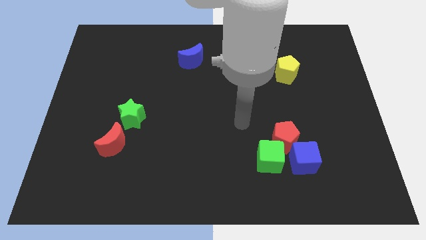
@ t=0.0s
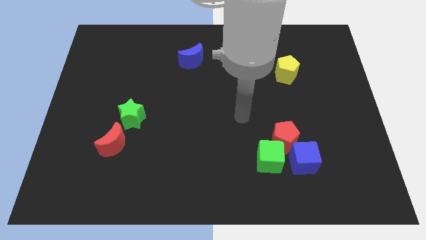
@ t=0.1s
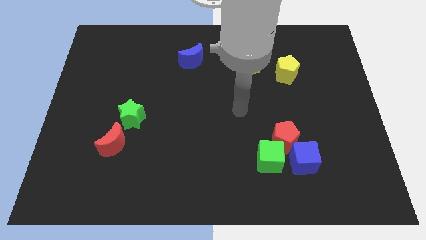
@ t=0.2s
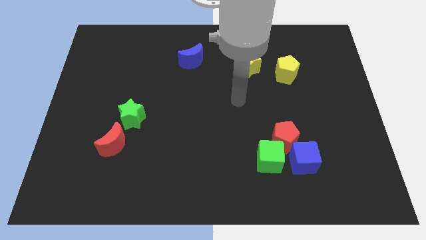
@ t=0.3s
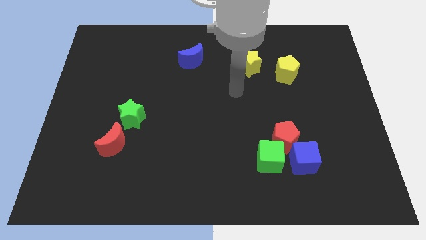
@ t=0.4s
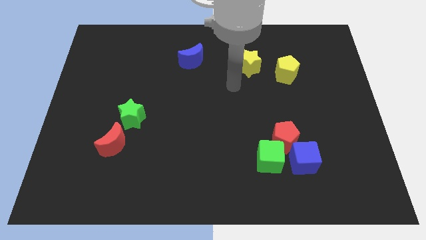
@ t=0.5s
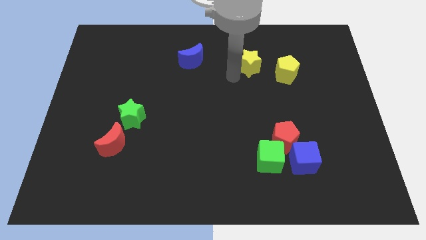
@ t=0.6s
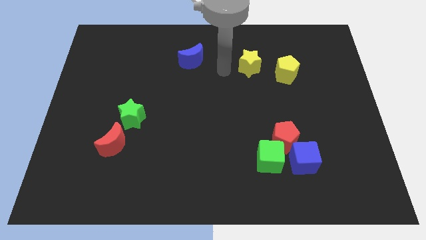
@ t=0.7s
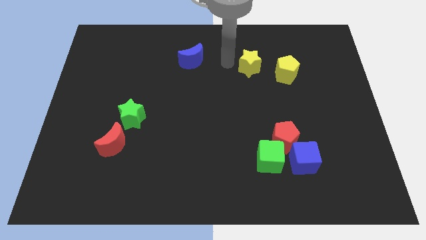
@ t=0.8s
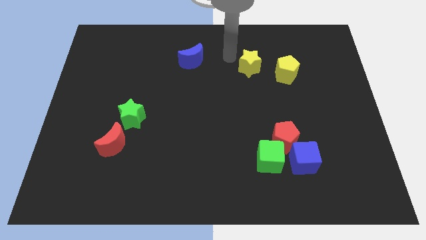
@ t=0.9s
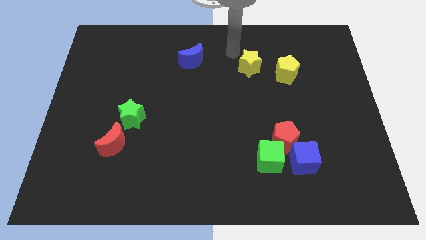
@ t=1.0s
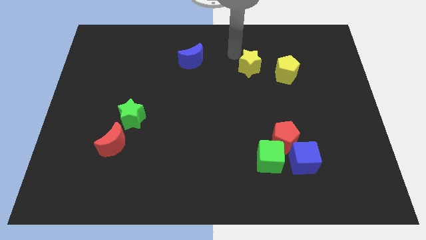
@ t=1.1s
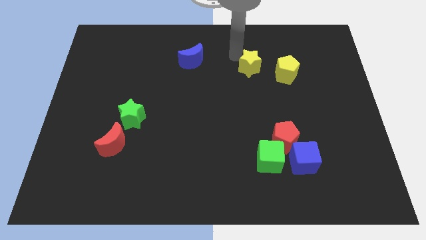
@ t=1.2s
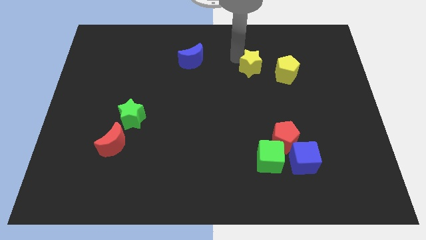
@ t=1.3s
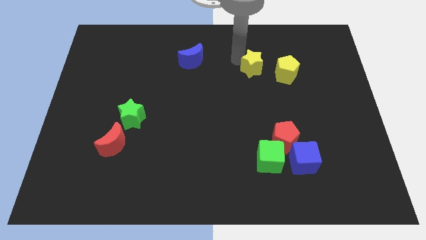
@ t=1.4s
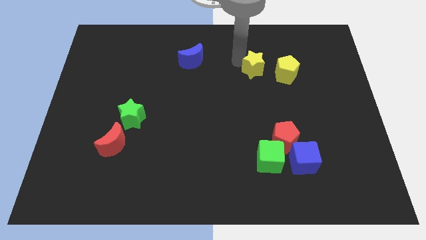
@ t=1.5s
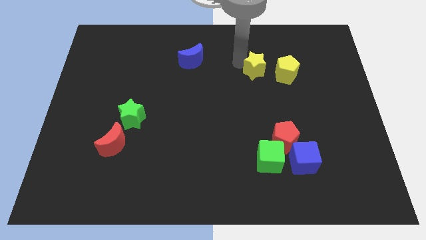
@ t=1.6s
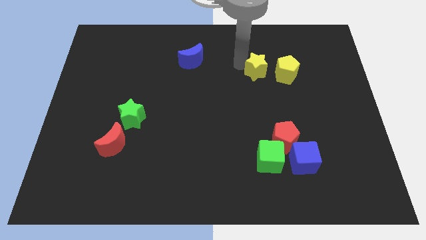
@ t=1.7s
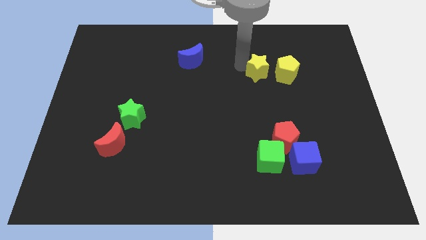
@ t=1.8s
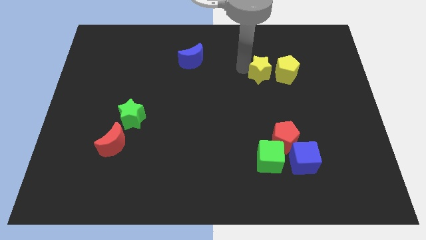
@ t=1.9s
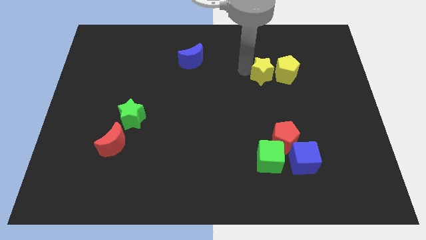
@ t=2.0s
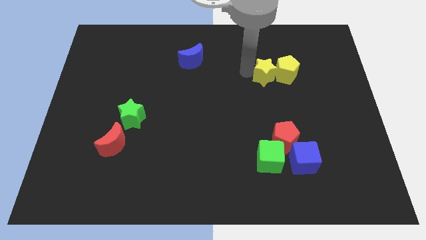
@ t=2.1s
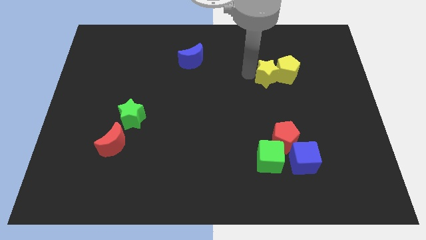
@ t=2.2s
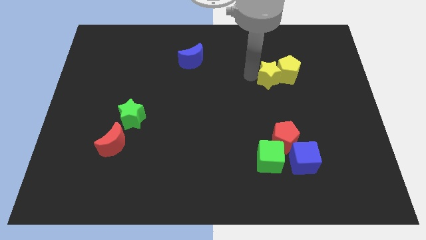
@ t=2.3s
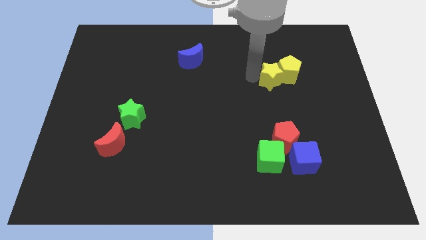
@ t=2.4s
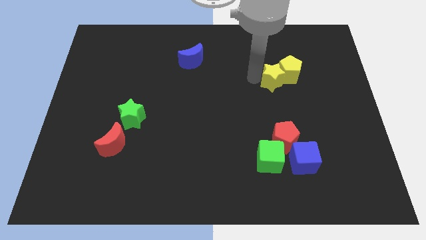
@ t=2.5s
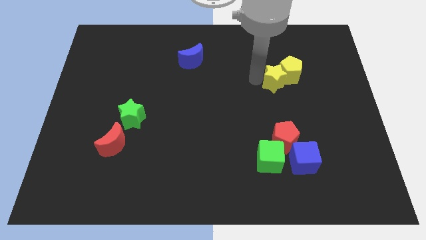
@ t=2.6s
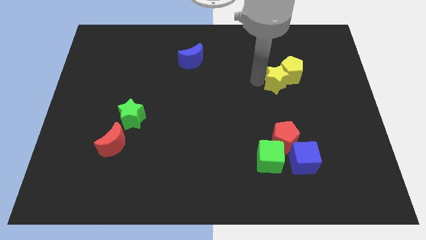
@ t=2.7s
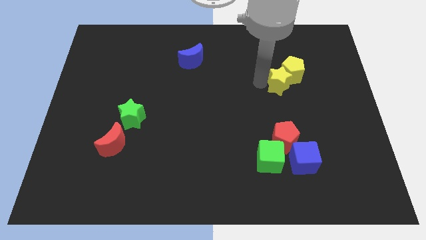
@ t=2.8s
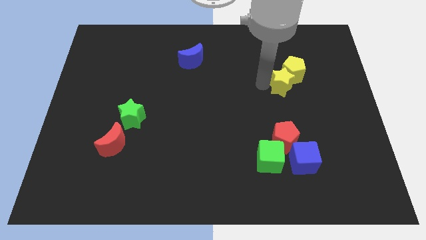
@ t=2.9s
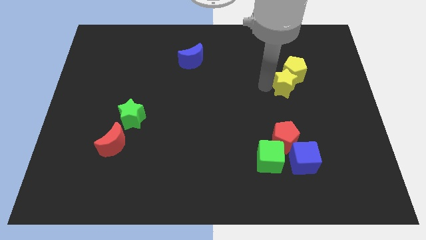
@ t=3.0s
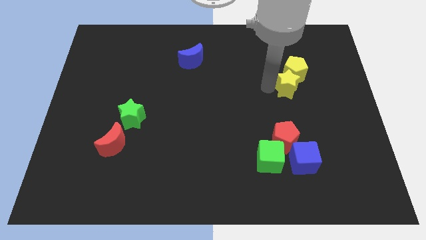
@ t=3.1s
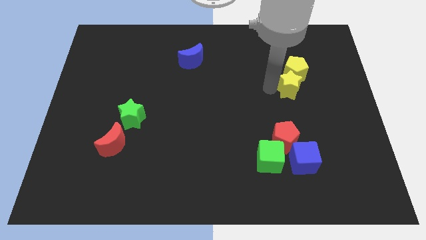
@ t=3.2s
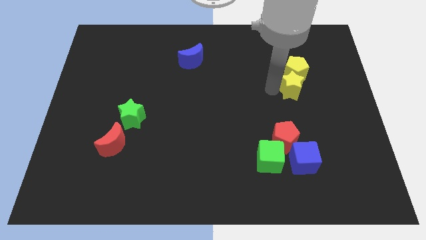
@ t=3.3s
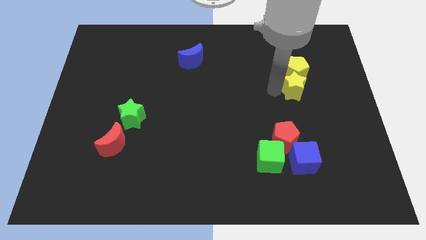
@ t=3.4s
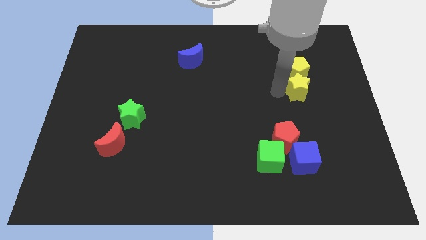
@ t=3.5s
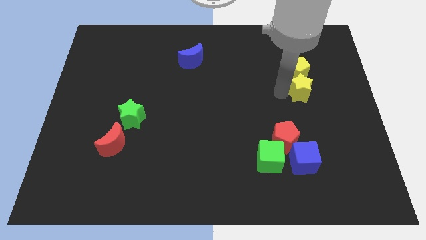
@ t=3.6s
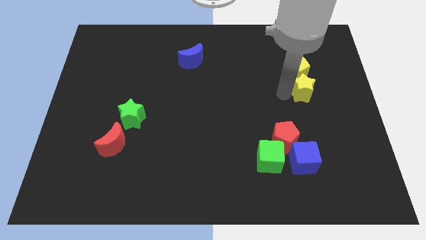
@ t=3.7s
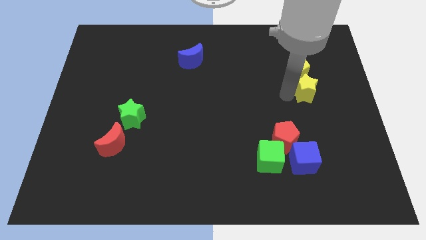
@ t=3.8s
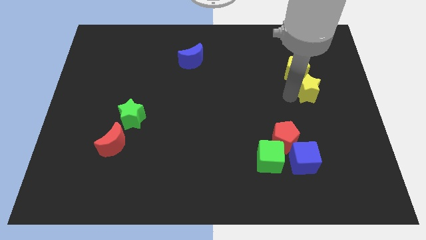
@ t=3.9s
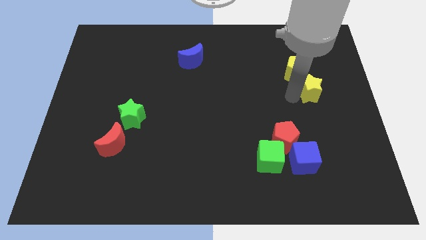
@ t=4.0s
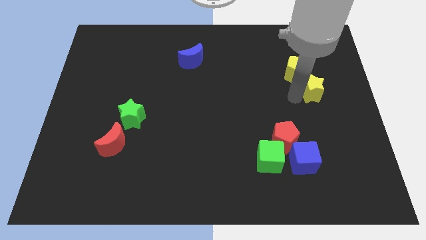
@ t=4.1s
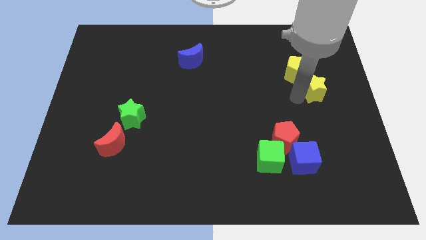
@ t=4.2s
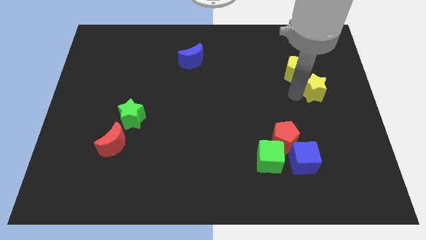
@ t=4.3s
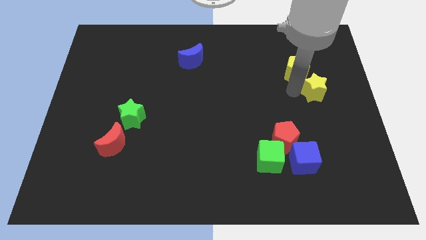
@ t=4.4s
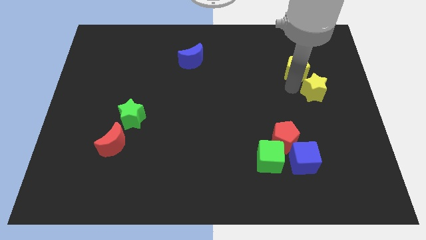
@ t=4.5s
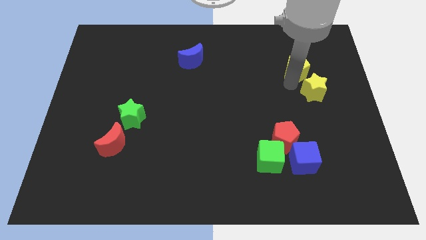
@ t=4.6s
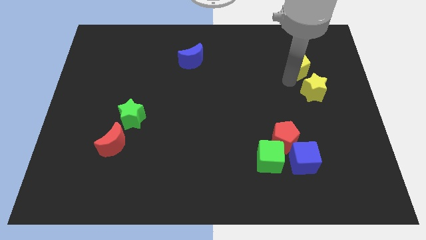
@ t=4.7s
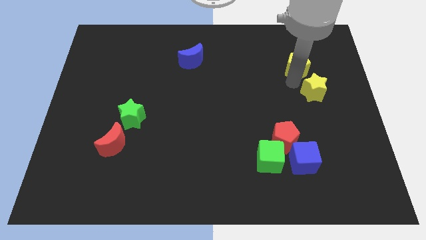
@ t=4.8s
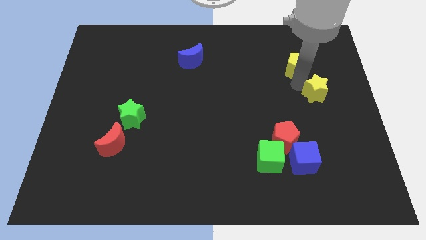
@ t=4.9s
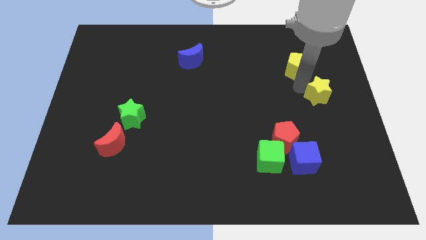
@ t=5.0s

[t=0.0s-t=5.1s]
move the yellow star to the center right

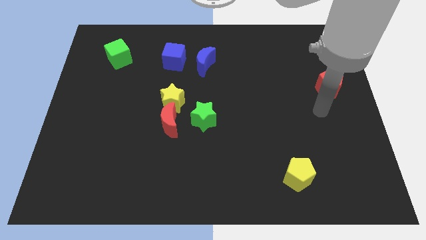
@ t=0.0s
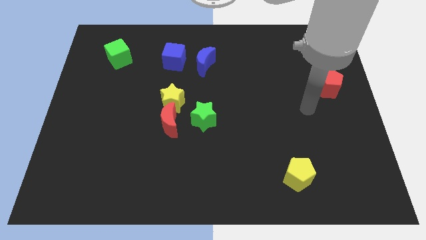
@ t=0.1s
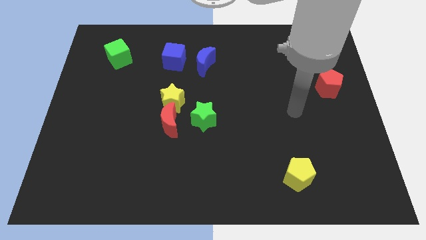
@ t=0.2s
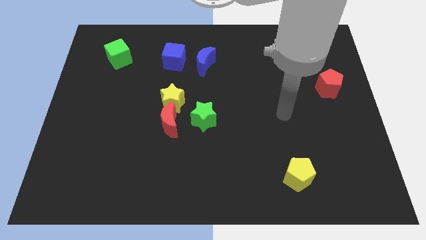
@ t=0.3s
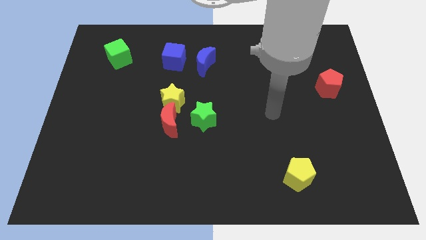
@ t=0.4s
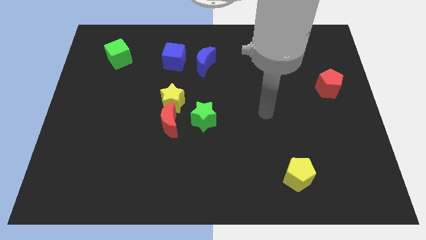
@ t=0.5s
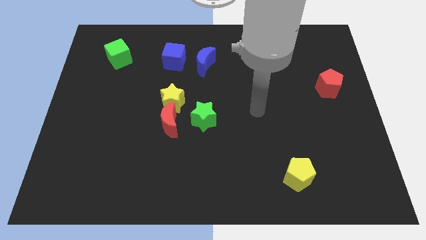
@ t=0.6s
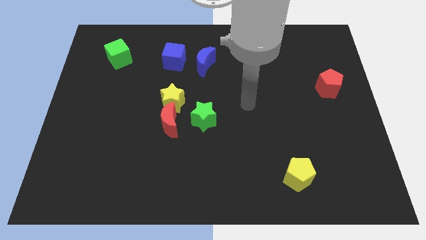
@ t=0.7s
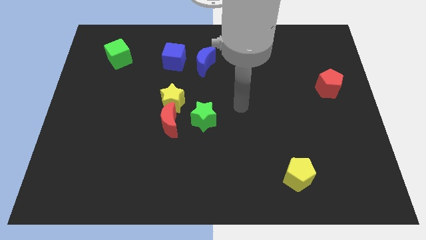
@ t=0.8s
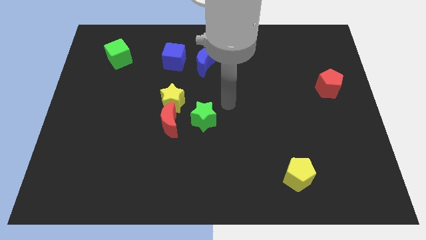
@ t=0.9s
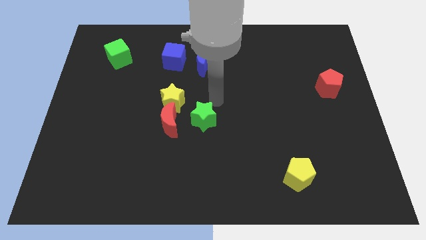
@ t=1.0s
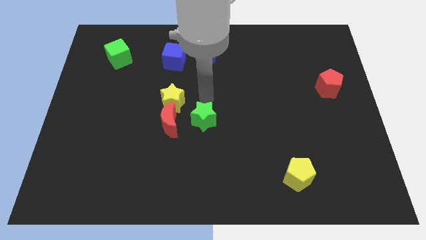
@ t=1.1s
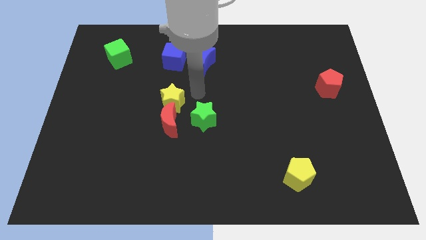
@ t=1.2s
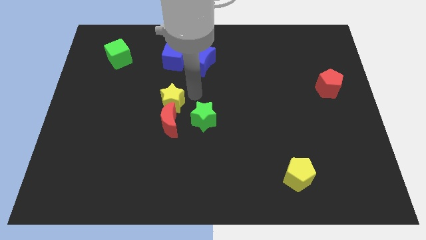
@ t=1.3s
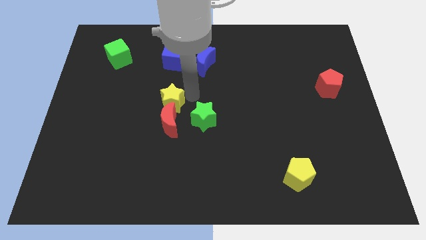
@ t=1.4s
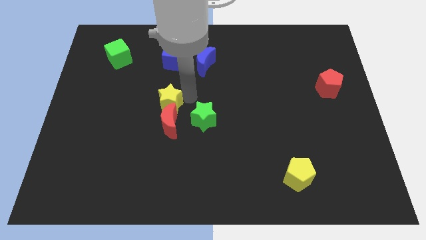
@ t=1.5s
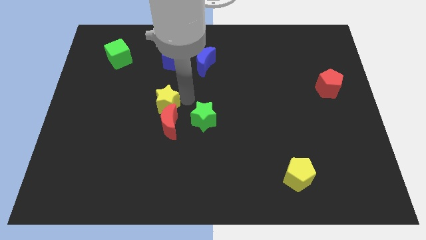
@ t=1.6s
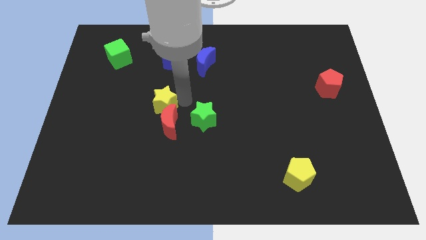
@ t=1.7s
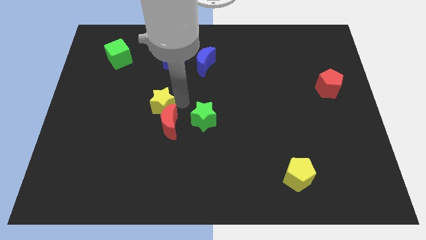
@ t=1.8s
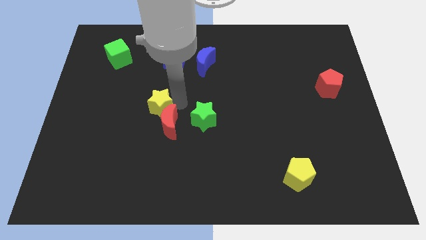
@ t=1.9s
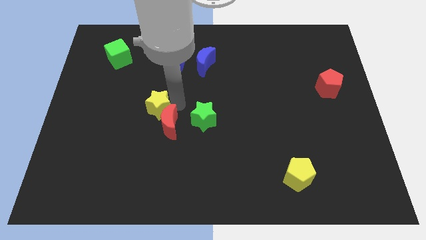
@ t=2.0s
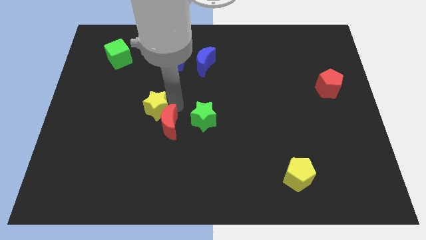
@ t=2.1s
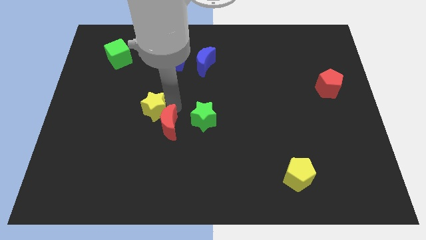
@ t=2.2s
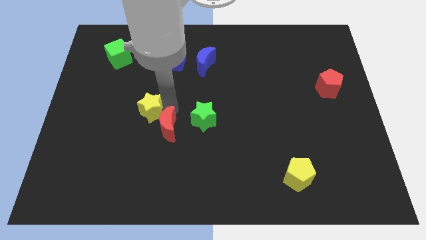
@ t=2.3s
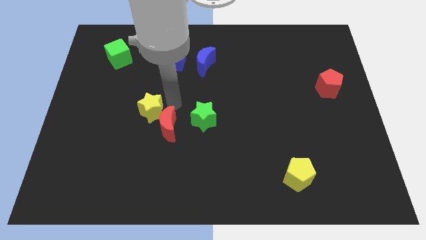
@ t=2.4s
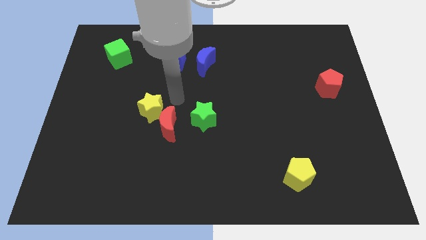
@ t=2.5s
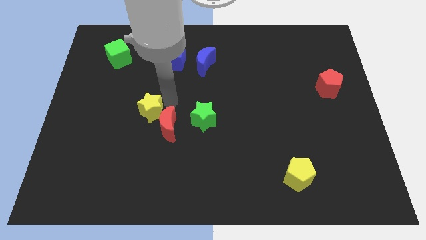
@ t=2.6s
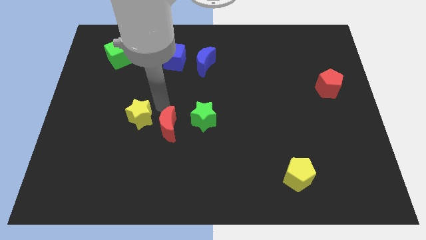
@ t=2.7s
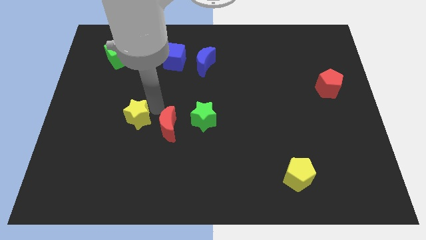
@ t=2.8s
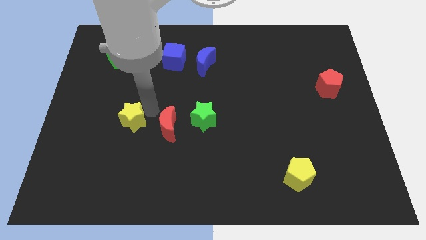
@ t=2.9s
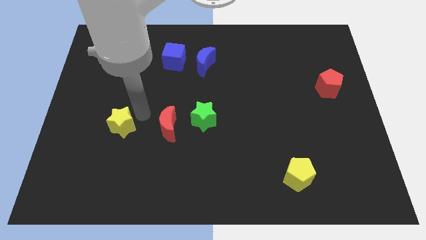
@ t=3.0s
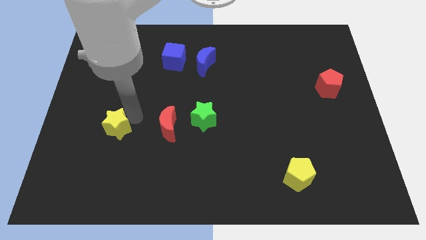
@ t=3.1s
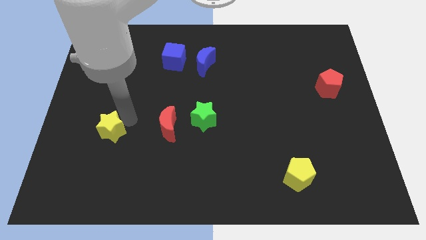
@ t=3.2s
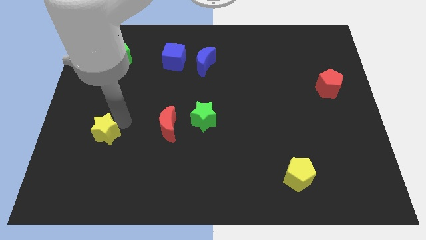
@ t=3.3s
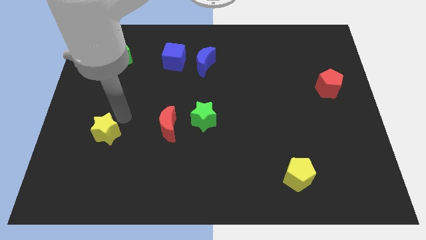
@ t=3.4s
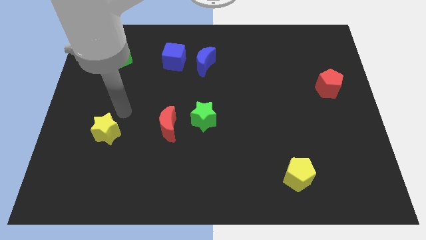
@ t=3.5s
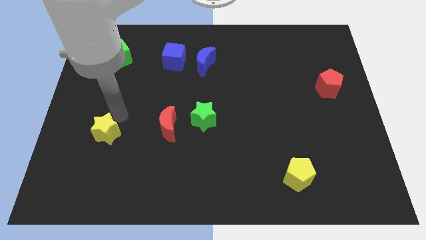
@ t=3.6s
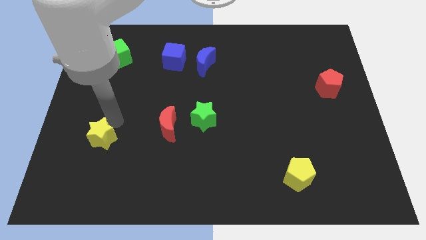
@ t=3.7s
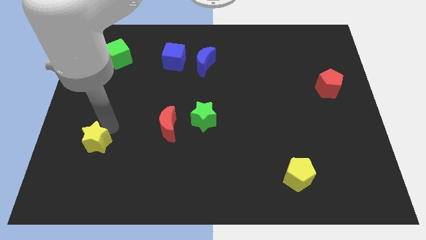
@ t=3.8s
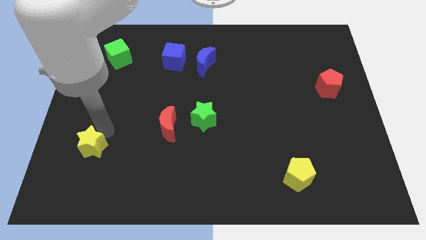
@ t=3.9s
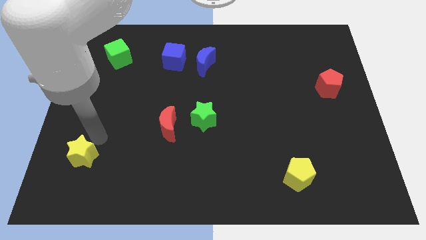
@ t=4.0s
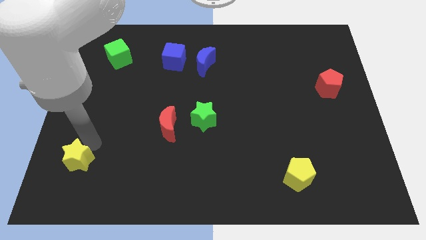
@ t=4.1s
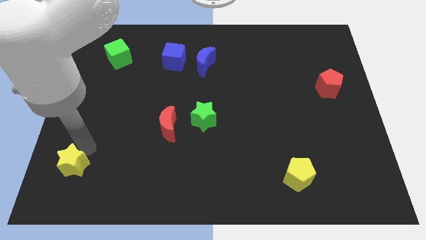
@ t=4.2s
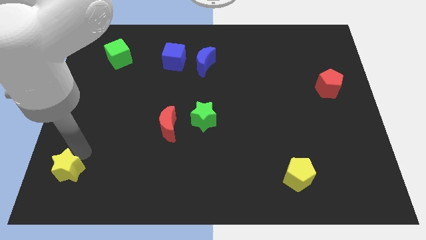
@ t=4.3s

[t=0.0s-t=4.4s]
slide the yellow star to the bottom left corner
